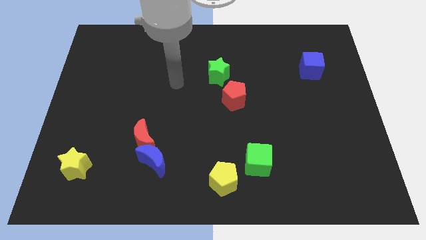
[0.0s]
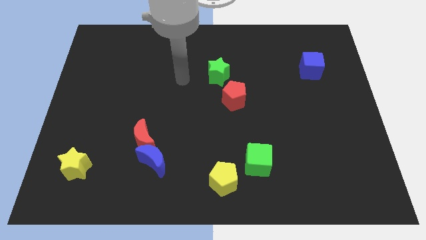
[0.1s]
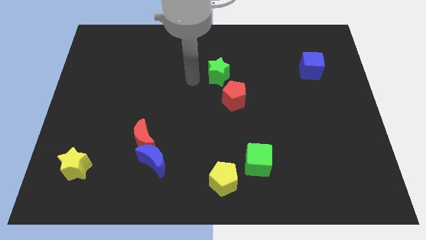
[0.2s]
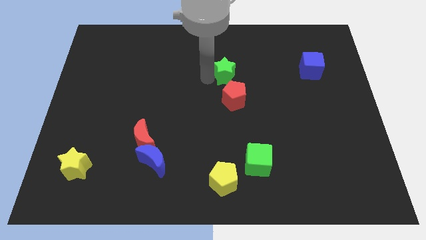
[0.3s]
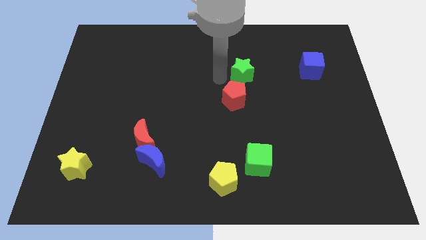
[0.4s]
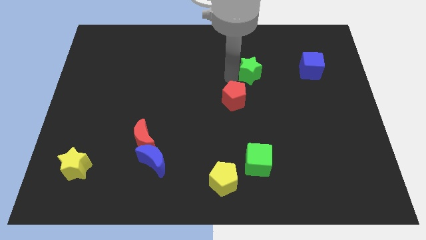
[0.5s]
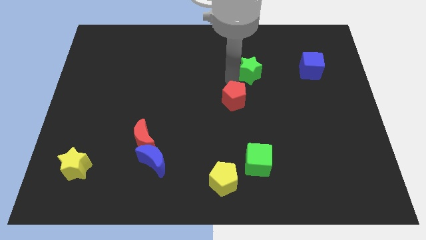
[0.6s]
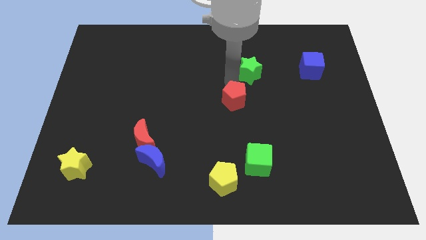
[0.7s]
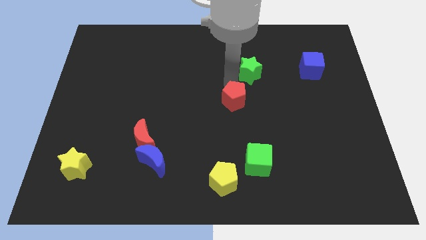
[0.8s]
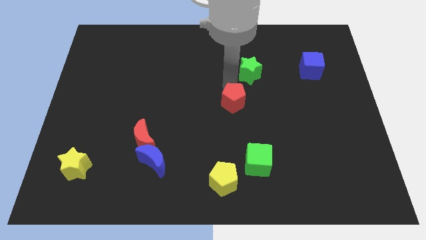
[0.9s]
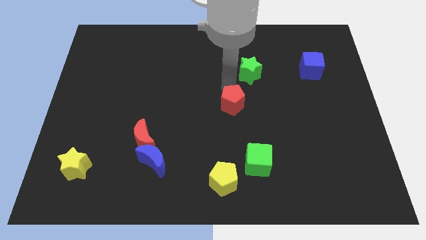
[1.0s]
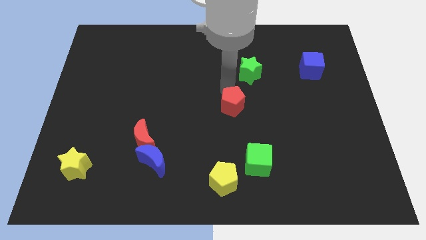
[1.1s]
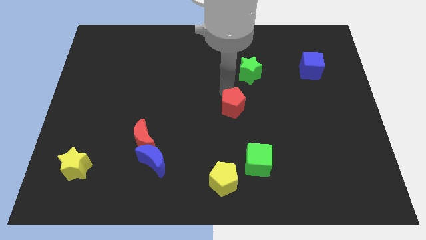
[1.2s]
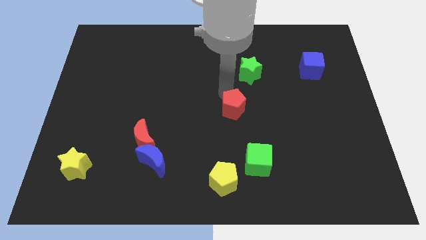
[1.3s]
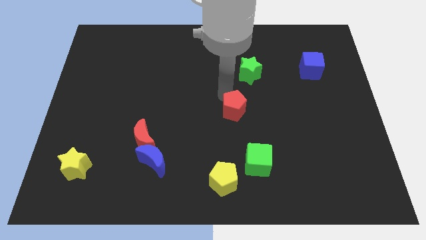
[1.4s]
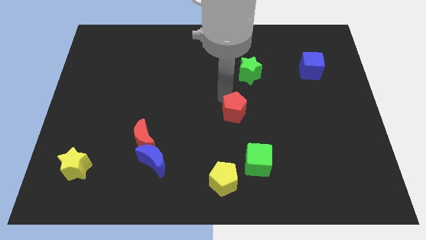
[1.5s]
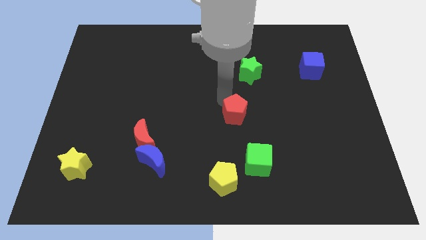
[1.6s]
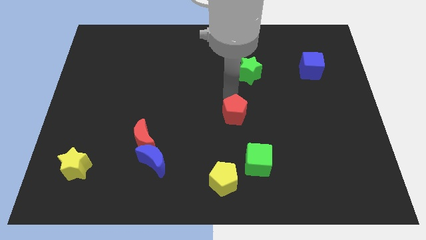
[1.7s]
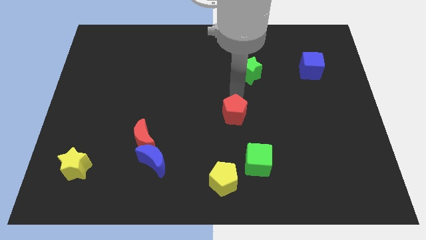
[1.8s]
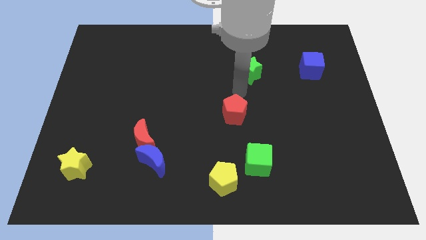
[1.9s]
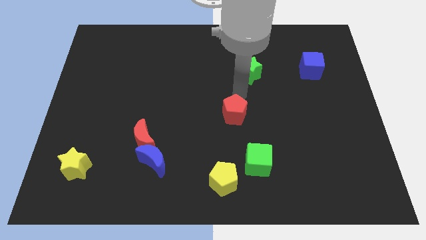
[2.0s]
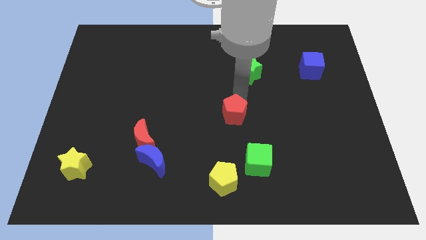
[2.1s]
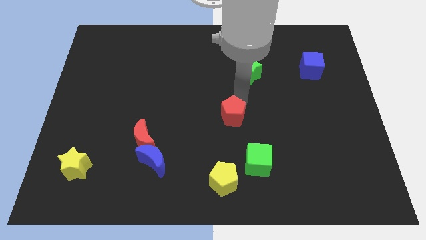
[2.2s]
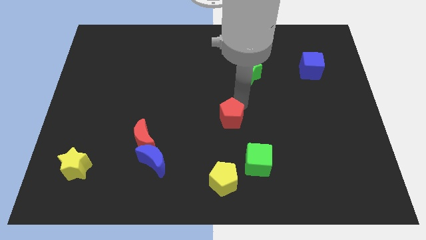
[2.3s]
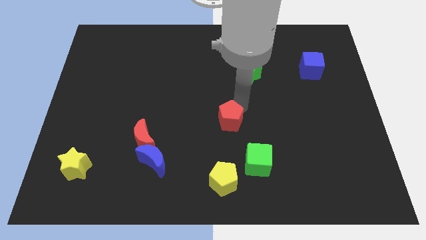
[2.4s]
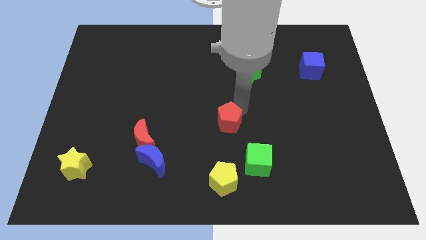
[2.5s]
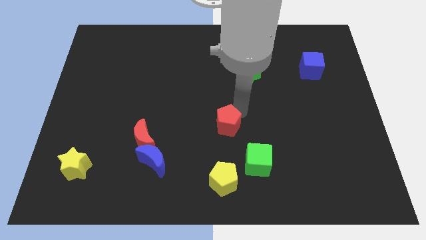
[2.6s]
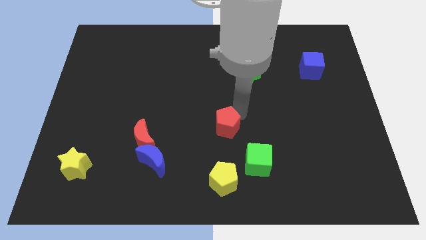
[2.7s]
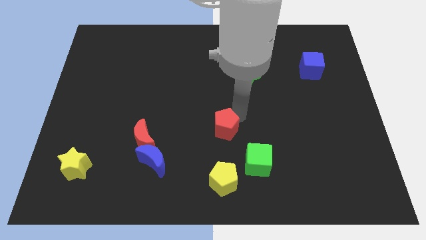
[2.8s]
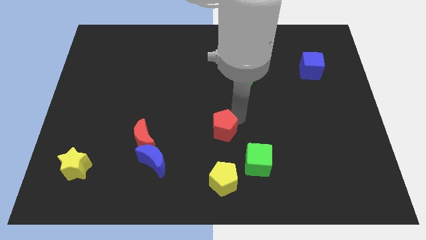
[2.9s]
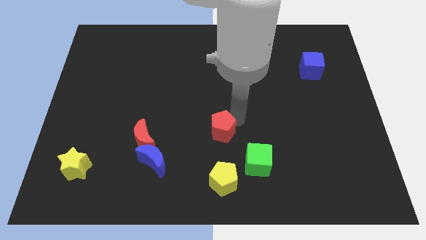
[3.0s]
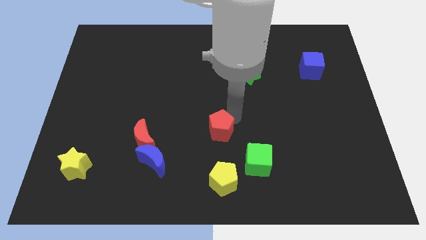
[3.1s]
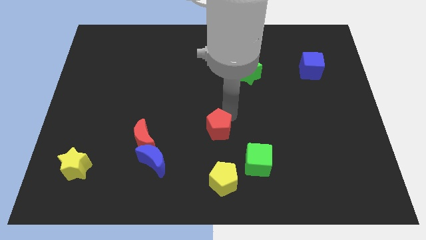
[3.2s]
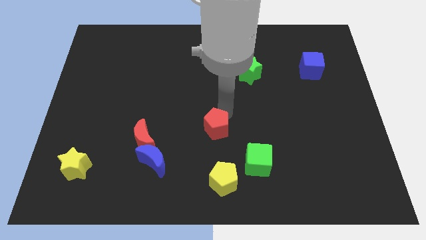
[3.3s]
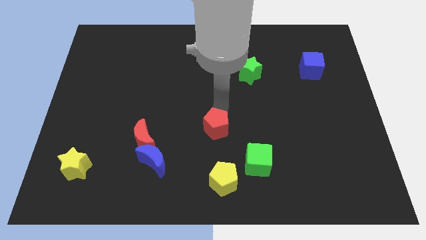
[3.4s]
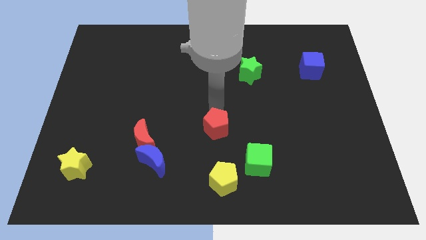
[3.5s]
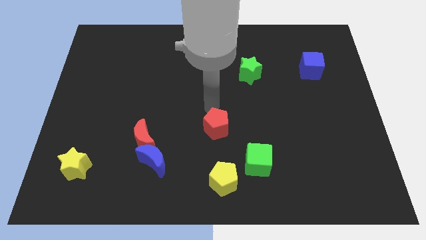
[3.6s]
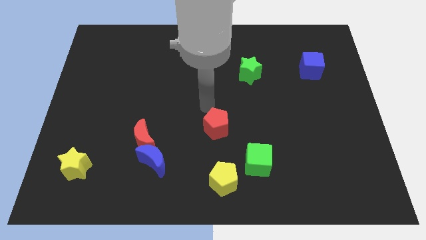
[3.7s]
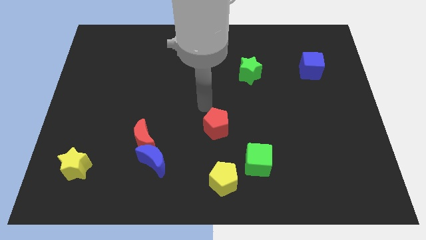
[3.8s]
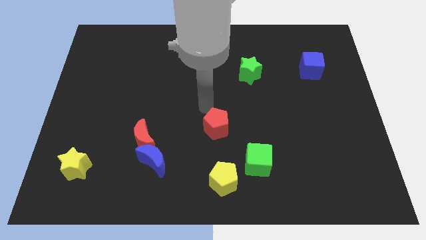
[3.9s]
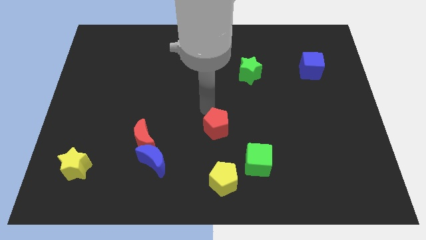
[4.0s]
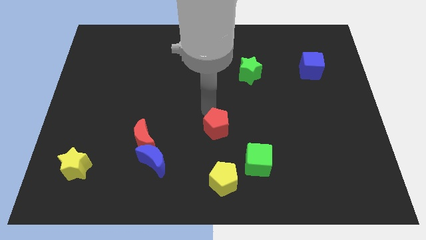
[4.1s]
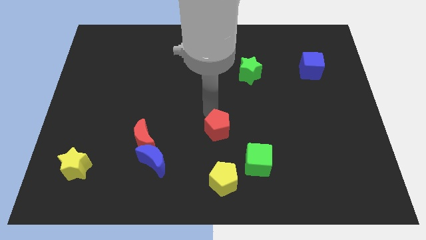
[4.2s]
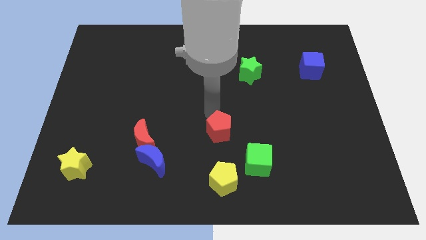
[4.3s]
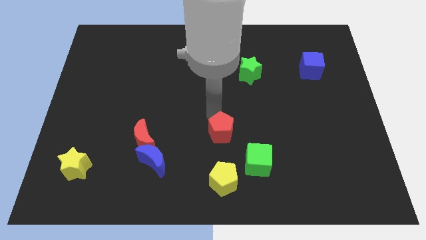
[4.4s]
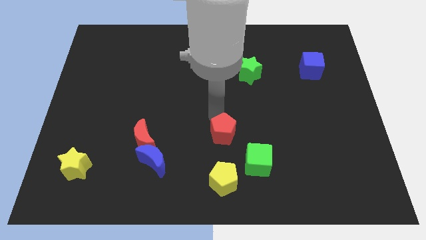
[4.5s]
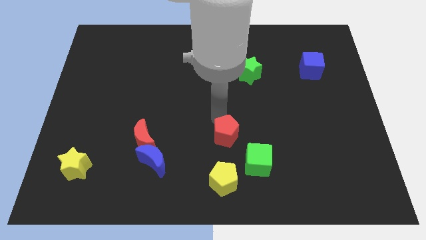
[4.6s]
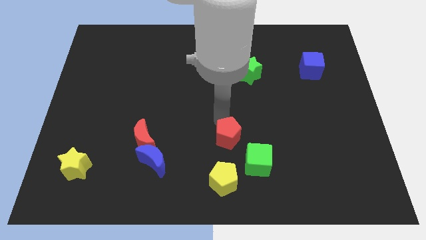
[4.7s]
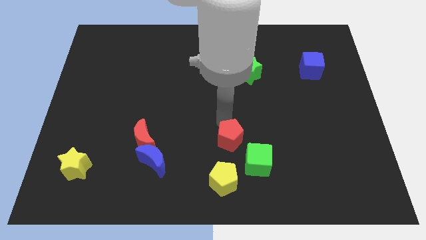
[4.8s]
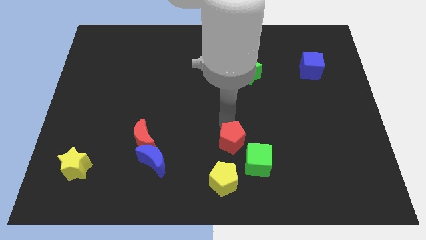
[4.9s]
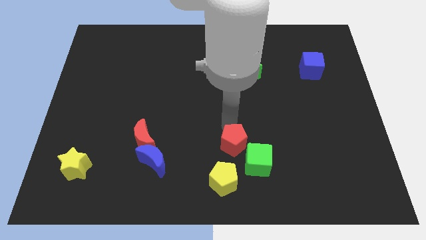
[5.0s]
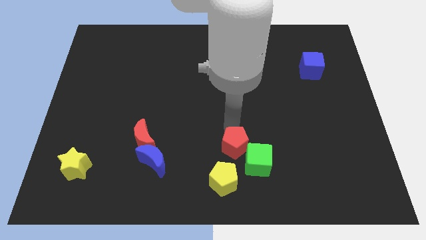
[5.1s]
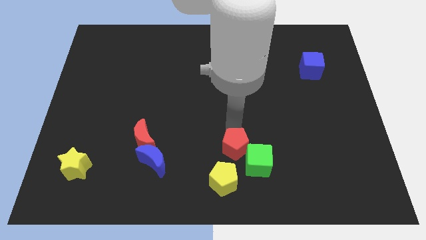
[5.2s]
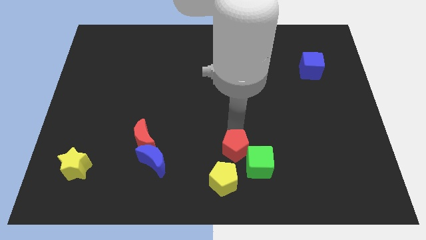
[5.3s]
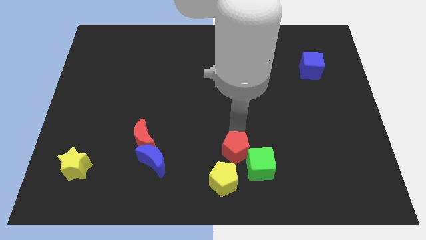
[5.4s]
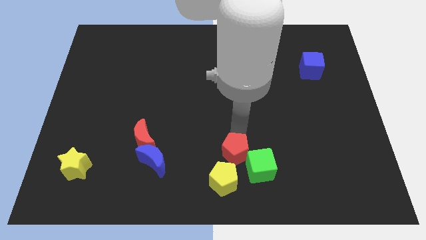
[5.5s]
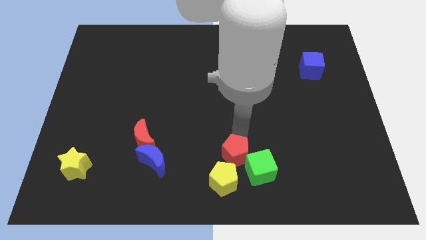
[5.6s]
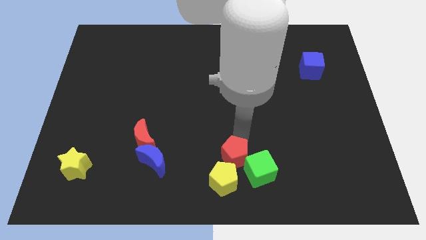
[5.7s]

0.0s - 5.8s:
slide the red pentagon to the bottom side

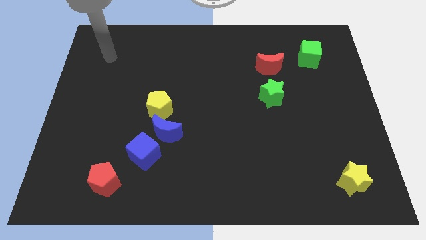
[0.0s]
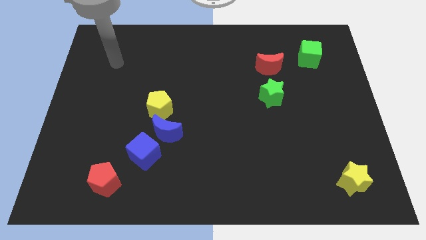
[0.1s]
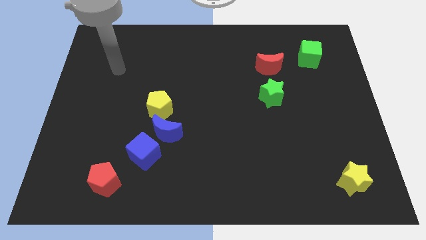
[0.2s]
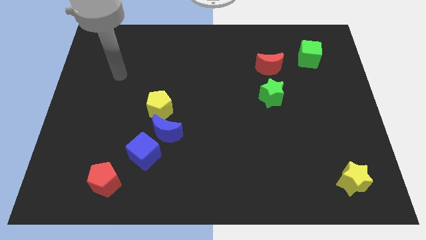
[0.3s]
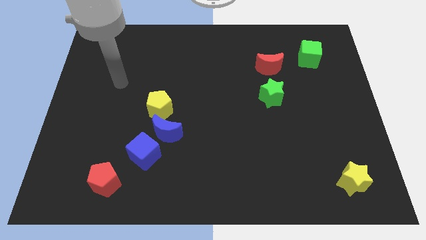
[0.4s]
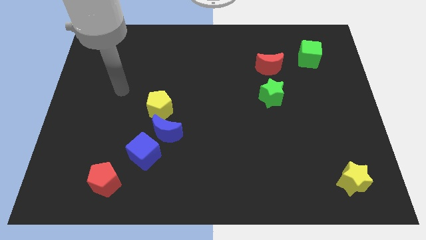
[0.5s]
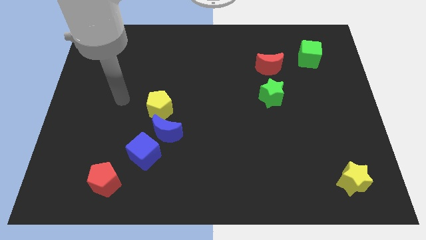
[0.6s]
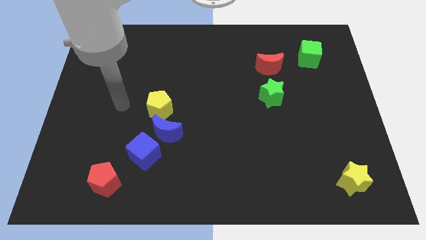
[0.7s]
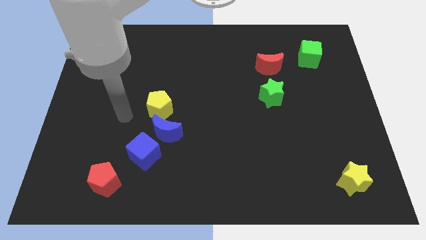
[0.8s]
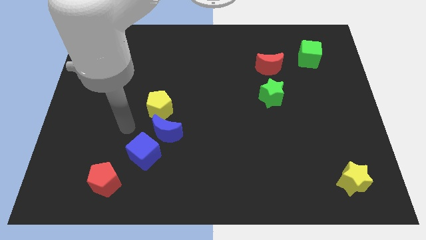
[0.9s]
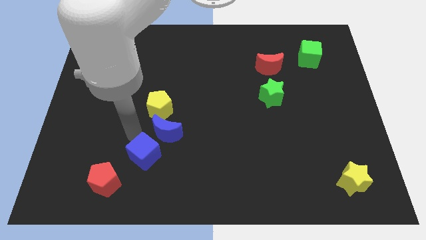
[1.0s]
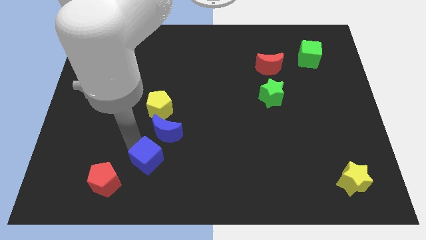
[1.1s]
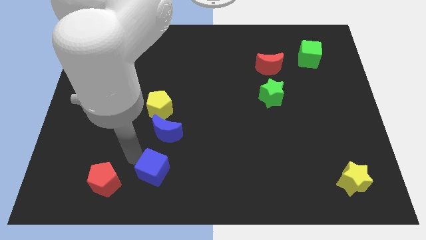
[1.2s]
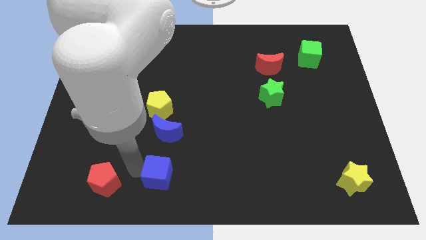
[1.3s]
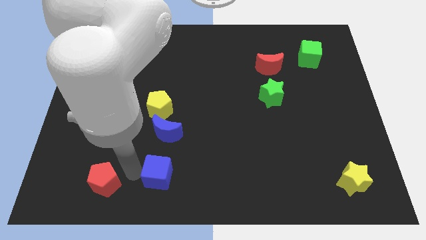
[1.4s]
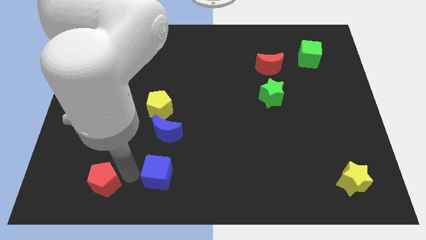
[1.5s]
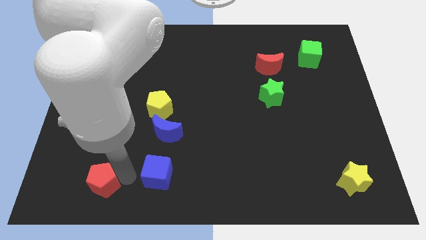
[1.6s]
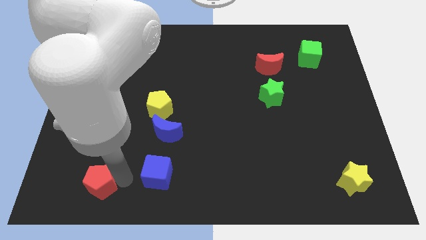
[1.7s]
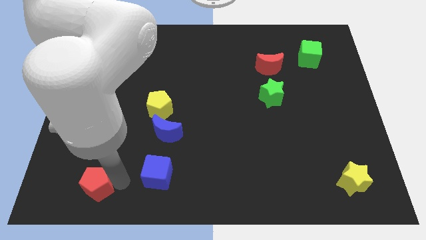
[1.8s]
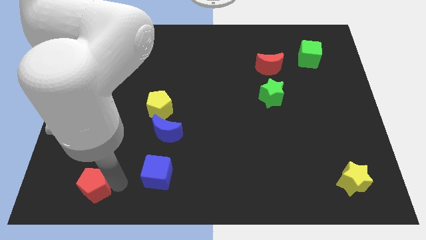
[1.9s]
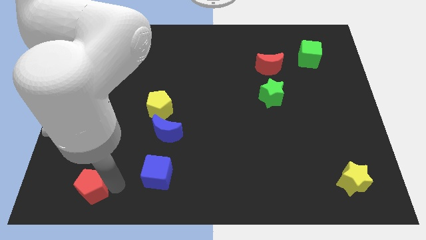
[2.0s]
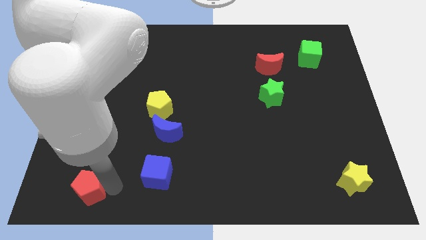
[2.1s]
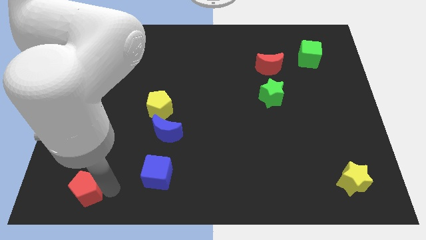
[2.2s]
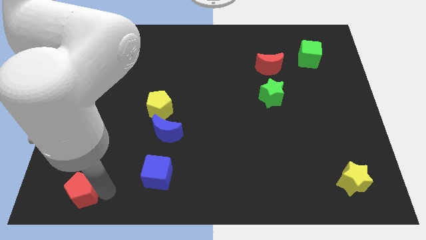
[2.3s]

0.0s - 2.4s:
slide the red pentagon to the lower left corner
